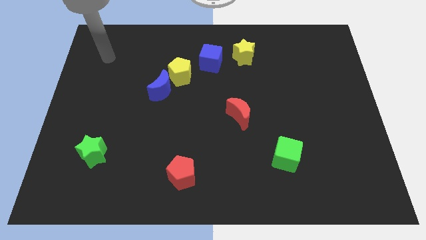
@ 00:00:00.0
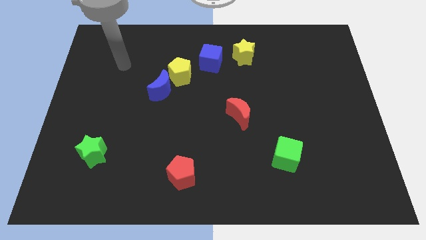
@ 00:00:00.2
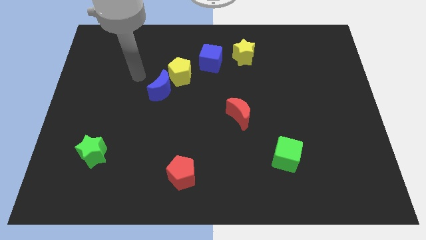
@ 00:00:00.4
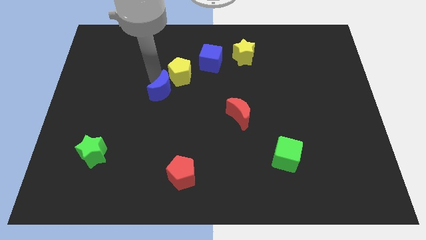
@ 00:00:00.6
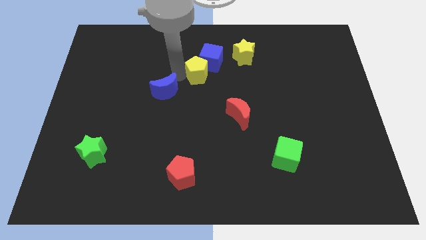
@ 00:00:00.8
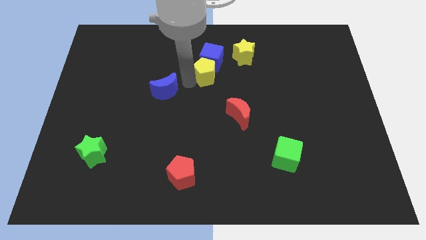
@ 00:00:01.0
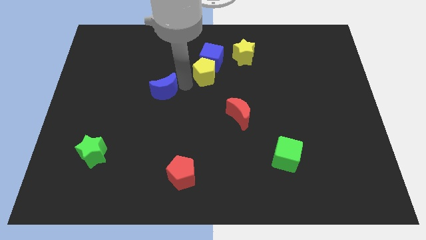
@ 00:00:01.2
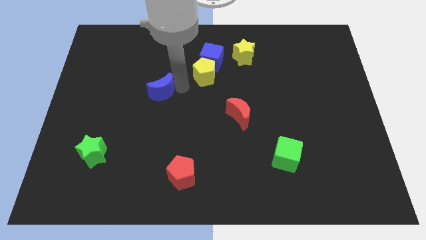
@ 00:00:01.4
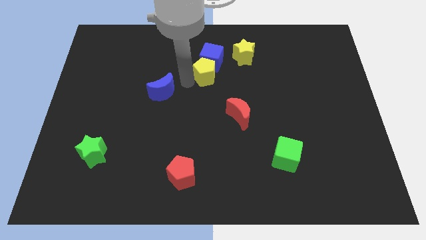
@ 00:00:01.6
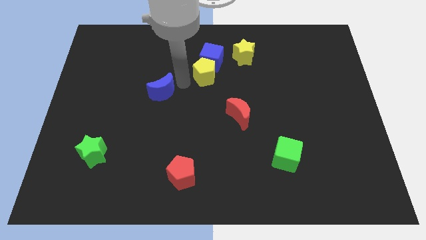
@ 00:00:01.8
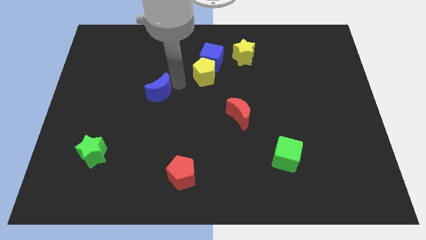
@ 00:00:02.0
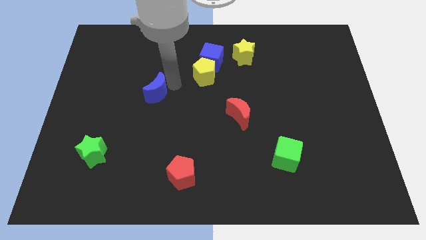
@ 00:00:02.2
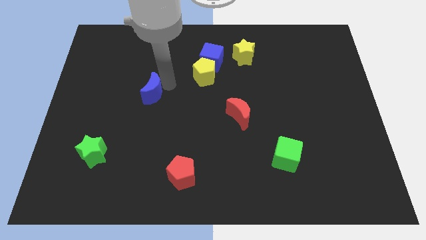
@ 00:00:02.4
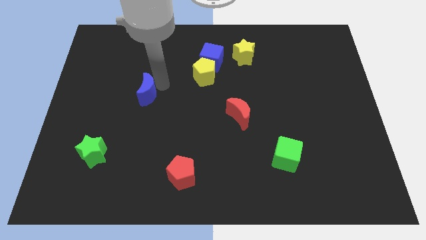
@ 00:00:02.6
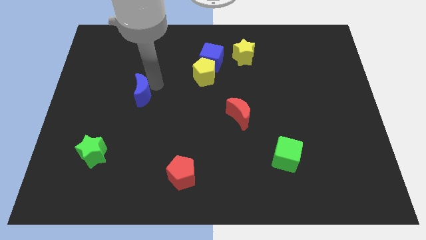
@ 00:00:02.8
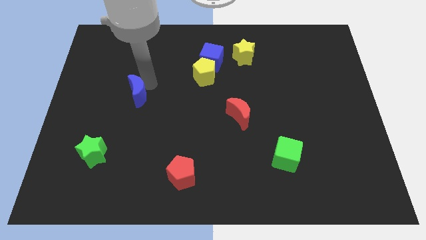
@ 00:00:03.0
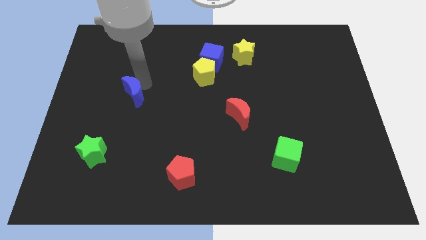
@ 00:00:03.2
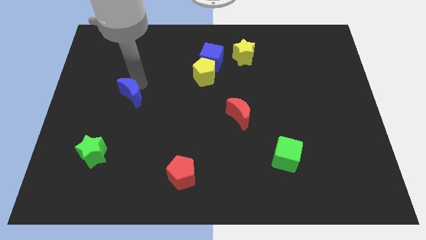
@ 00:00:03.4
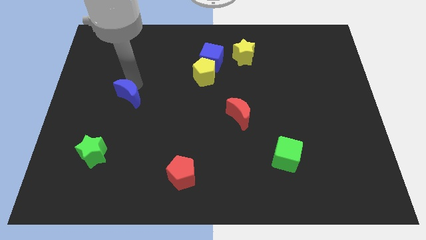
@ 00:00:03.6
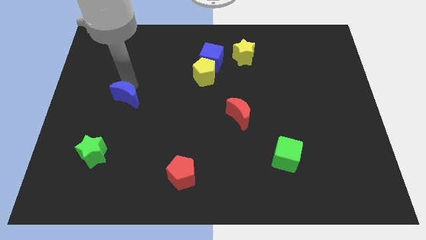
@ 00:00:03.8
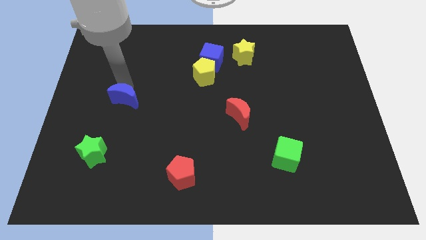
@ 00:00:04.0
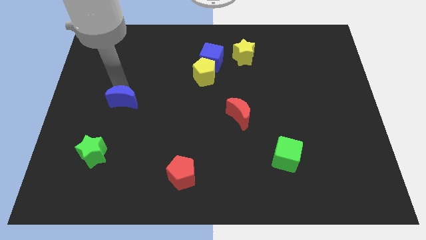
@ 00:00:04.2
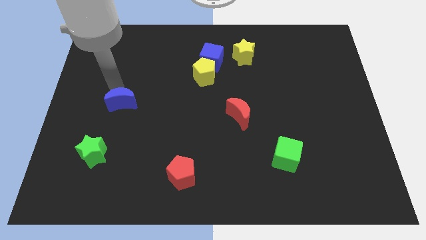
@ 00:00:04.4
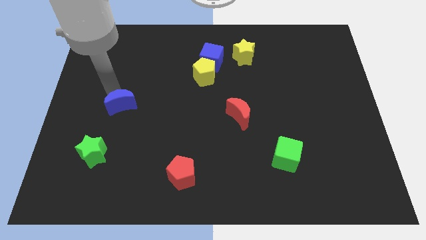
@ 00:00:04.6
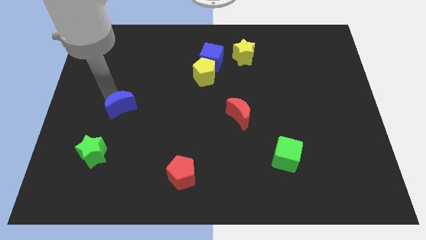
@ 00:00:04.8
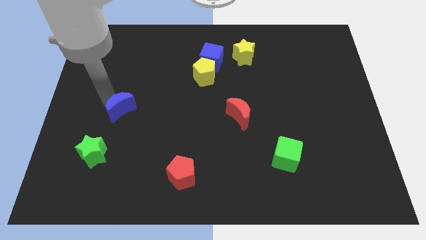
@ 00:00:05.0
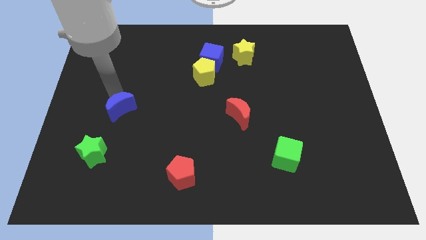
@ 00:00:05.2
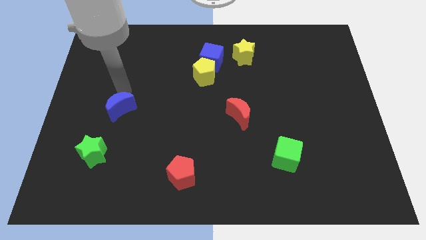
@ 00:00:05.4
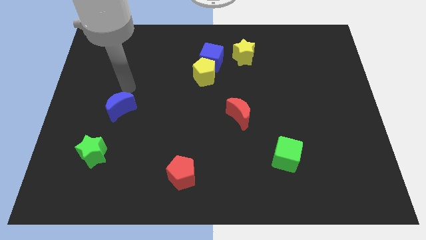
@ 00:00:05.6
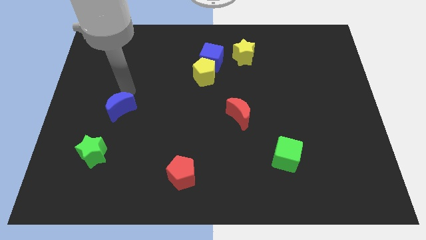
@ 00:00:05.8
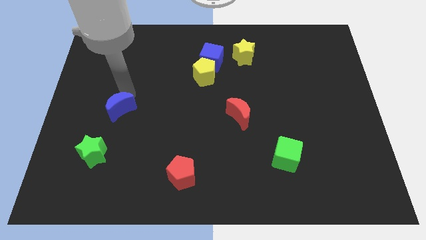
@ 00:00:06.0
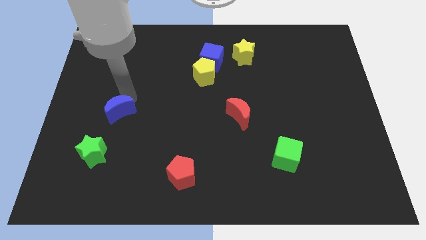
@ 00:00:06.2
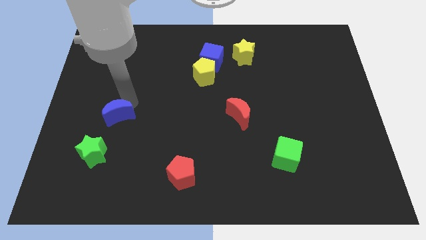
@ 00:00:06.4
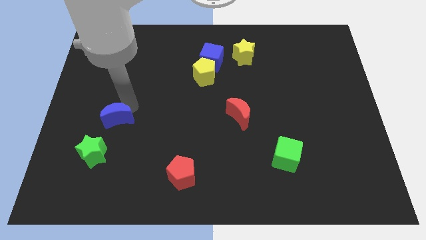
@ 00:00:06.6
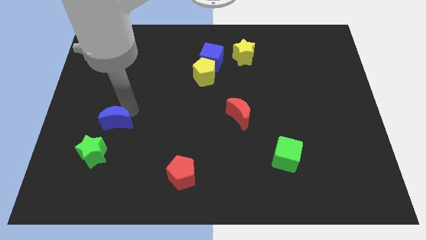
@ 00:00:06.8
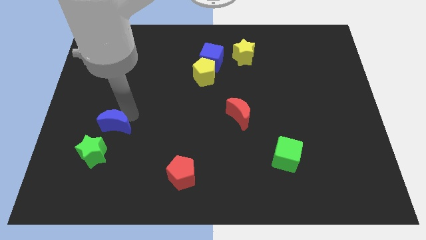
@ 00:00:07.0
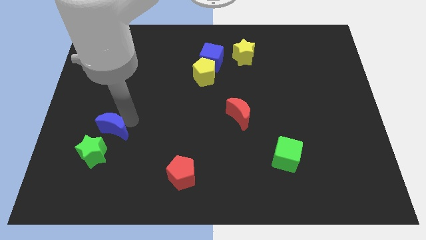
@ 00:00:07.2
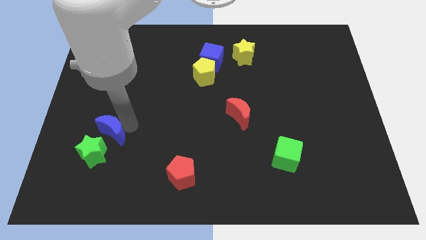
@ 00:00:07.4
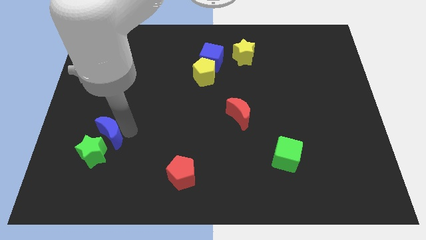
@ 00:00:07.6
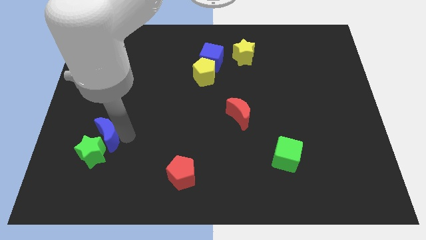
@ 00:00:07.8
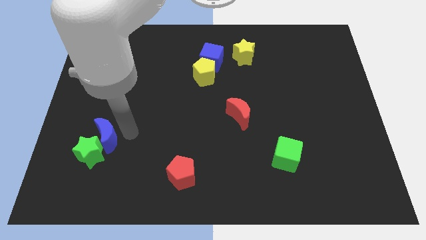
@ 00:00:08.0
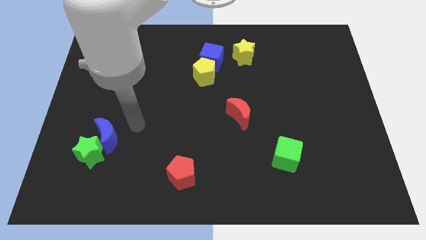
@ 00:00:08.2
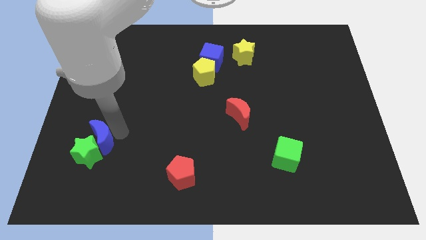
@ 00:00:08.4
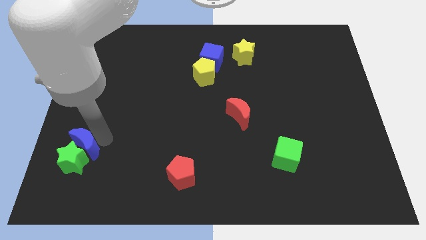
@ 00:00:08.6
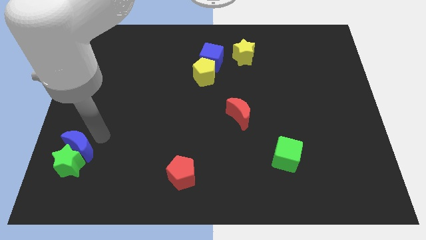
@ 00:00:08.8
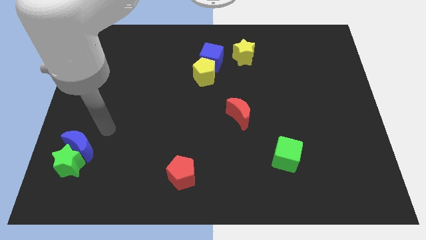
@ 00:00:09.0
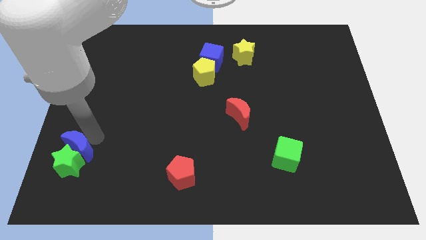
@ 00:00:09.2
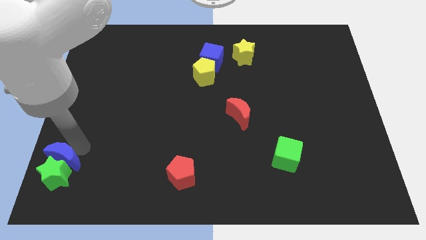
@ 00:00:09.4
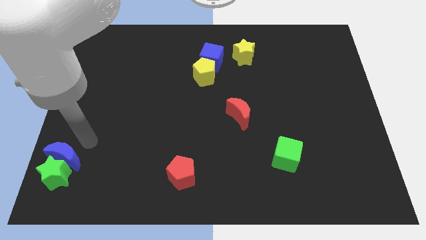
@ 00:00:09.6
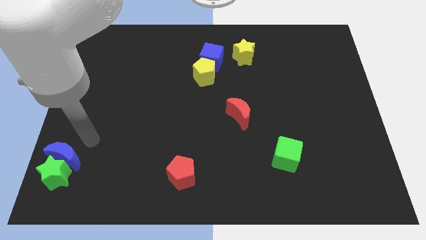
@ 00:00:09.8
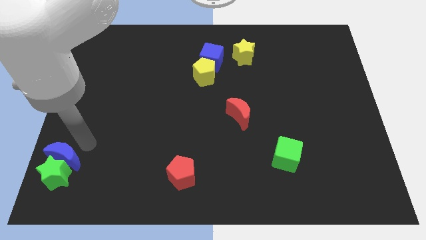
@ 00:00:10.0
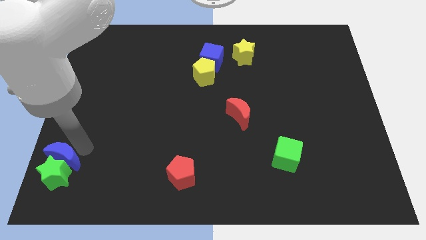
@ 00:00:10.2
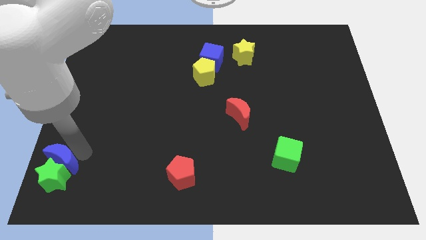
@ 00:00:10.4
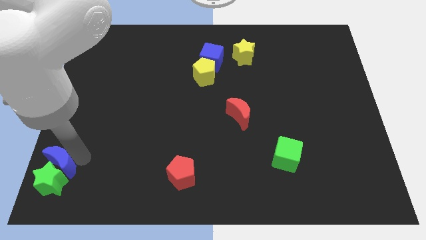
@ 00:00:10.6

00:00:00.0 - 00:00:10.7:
put the blue moon to the bottom left corner

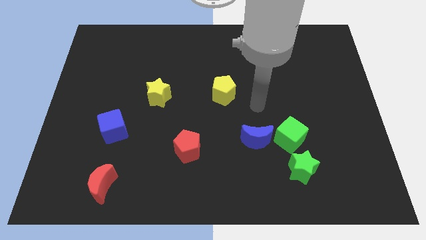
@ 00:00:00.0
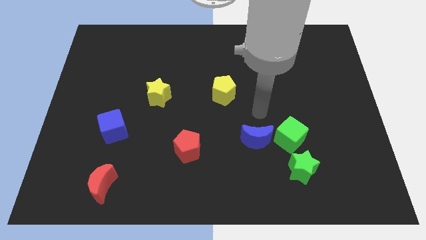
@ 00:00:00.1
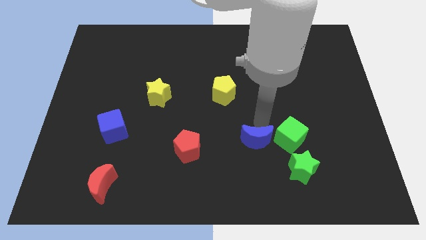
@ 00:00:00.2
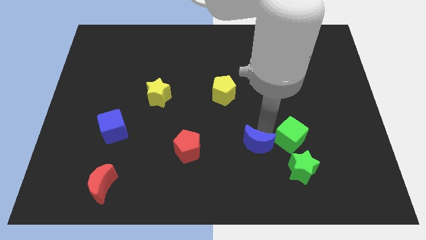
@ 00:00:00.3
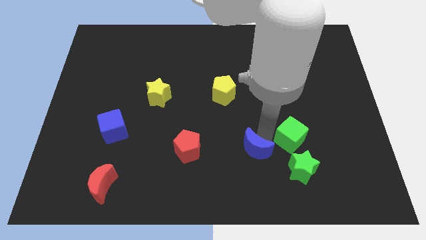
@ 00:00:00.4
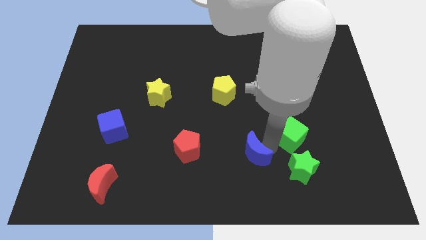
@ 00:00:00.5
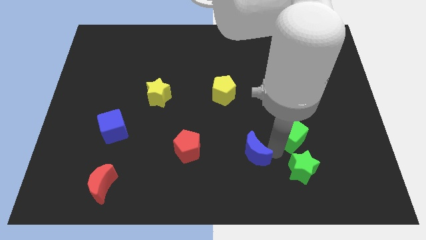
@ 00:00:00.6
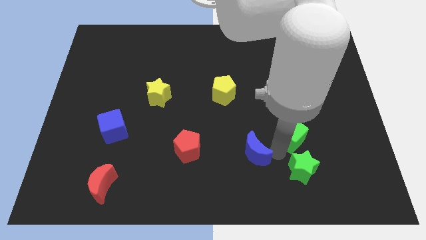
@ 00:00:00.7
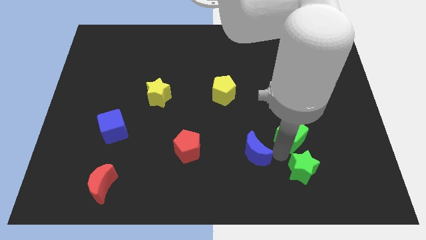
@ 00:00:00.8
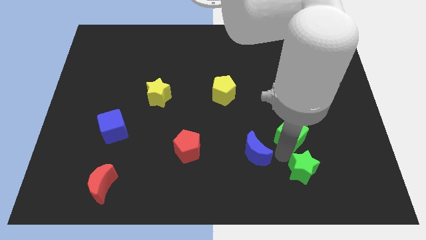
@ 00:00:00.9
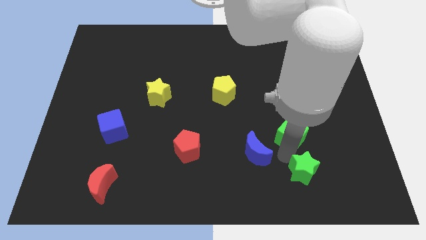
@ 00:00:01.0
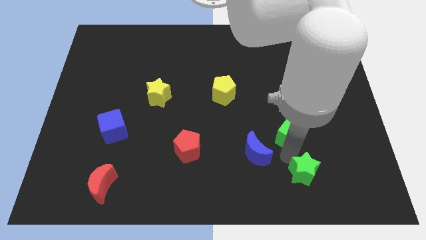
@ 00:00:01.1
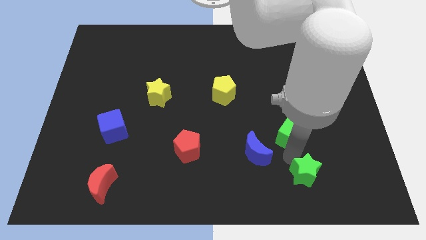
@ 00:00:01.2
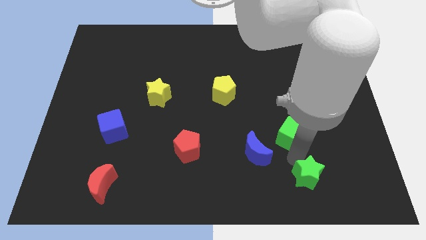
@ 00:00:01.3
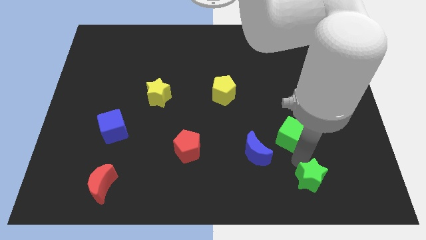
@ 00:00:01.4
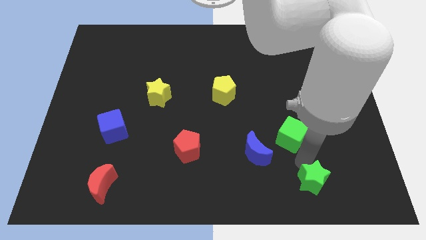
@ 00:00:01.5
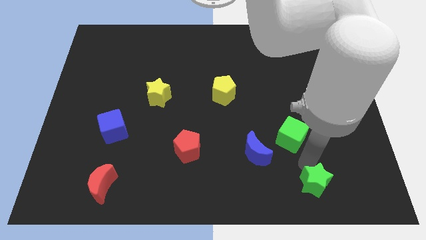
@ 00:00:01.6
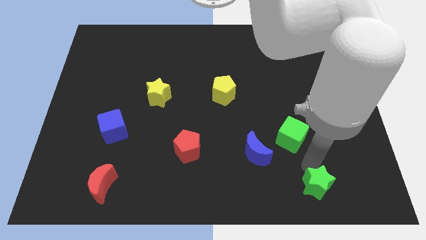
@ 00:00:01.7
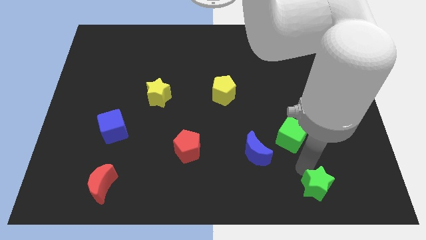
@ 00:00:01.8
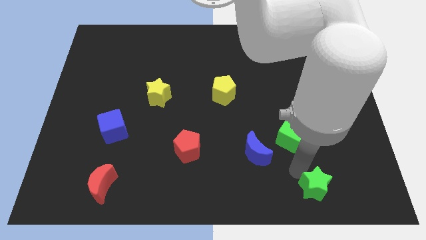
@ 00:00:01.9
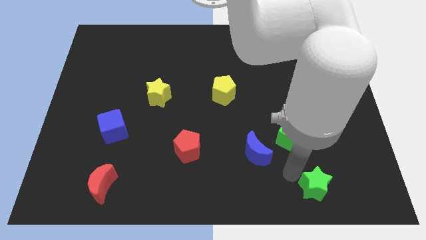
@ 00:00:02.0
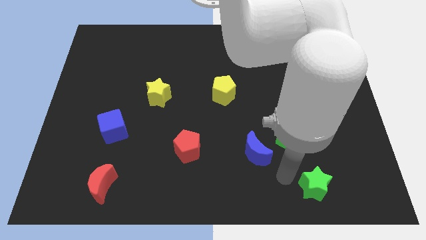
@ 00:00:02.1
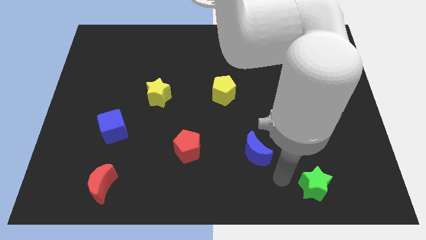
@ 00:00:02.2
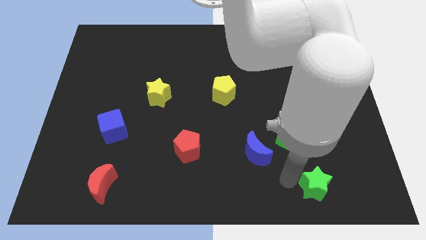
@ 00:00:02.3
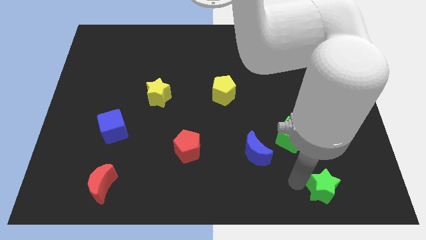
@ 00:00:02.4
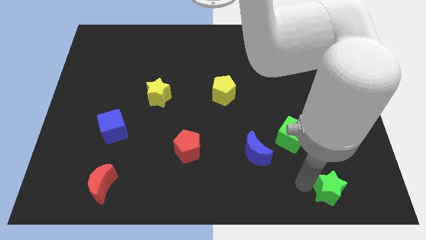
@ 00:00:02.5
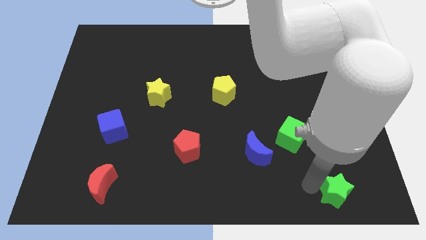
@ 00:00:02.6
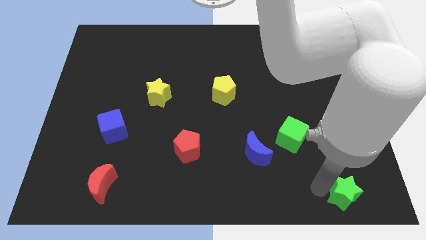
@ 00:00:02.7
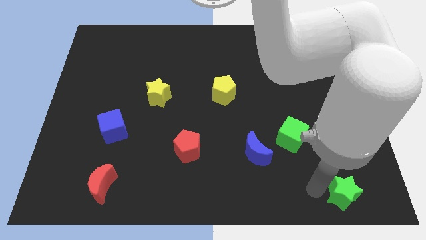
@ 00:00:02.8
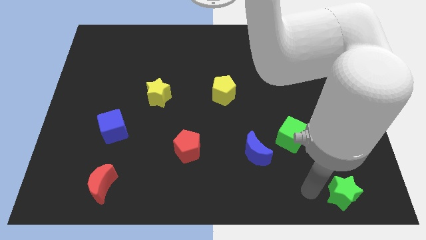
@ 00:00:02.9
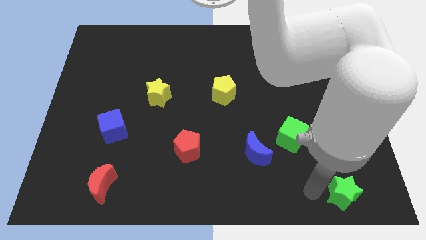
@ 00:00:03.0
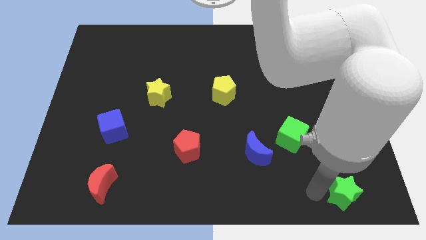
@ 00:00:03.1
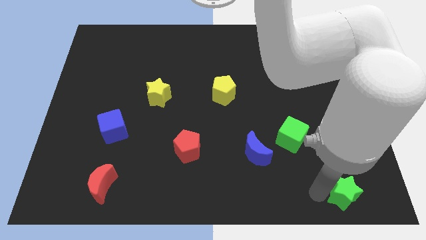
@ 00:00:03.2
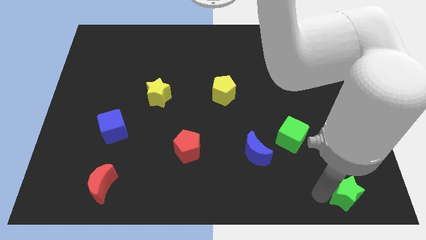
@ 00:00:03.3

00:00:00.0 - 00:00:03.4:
put the green star to the bottom right
